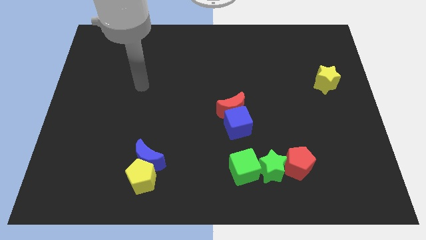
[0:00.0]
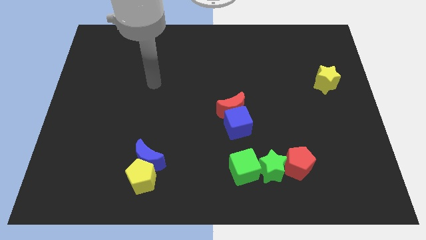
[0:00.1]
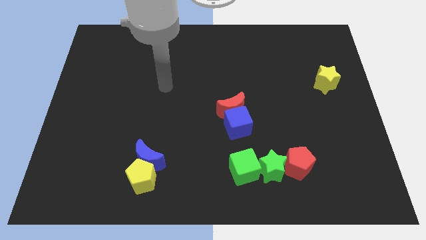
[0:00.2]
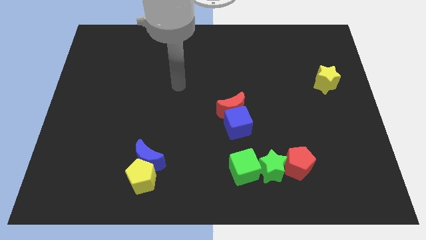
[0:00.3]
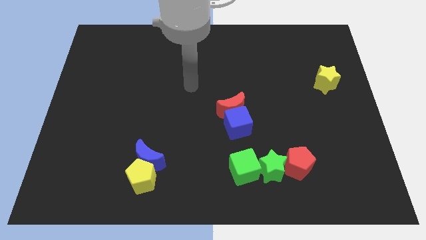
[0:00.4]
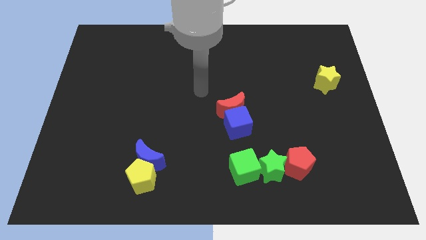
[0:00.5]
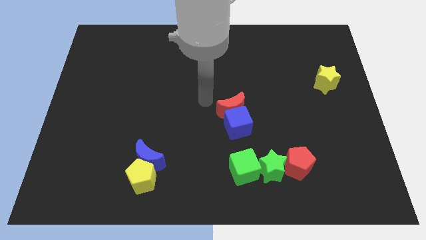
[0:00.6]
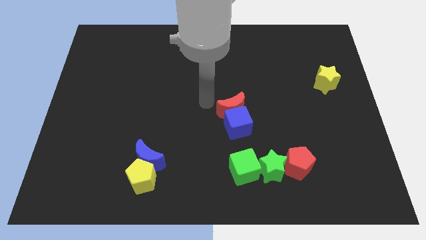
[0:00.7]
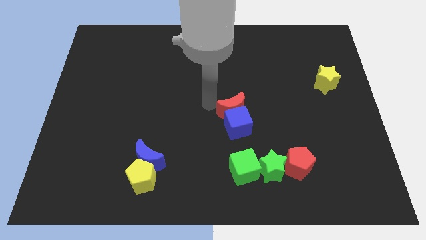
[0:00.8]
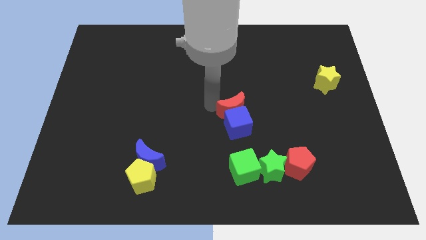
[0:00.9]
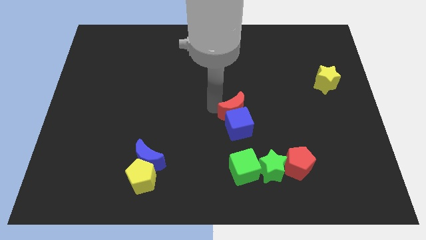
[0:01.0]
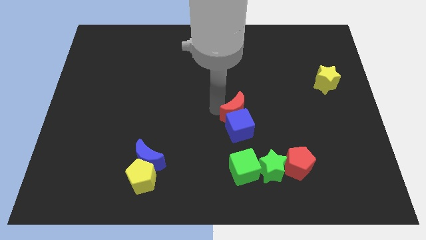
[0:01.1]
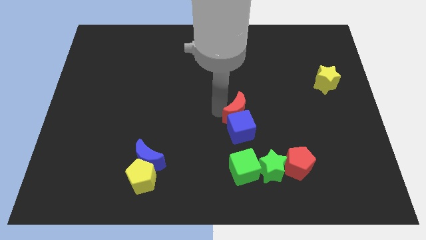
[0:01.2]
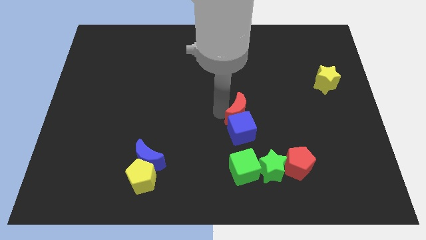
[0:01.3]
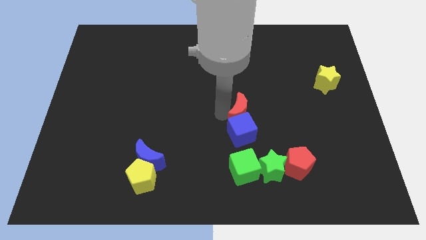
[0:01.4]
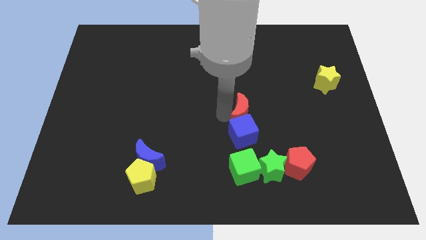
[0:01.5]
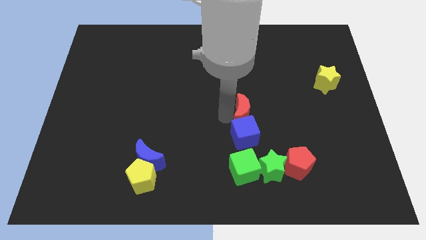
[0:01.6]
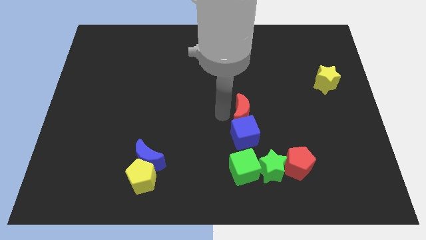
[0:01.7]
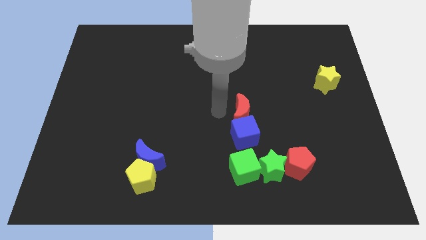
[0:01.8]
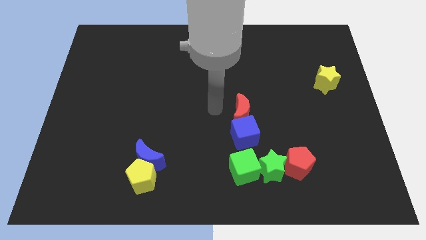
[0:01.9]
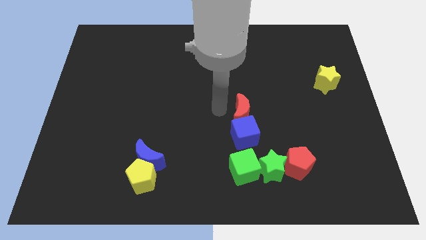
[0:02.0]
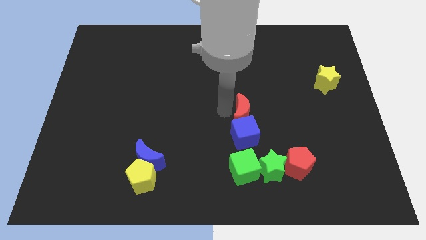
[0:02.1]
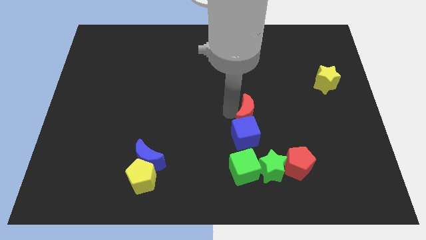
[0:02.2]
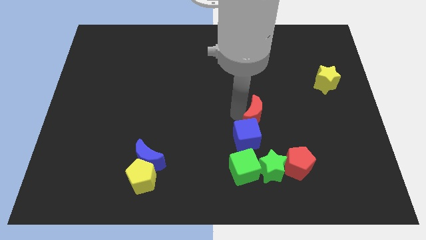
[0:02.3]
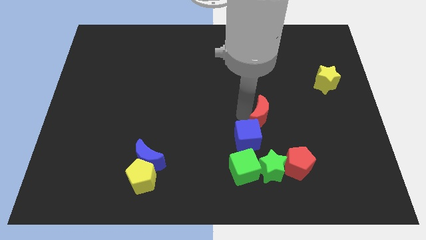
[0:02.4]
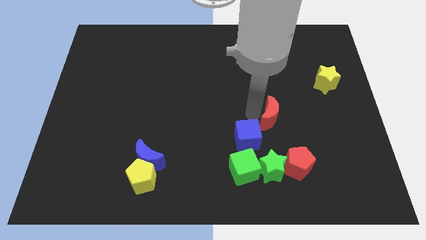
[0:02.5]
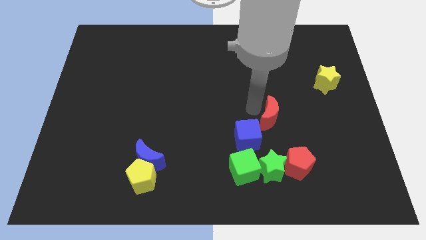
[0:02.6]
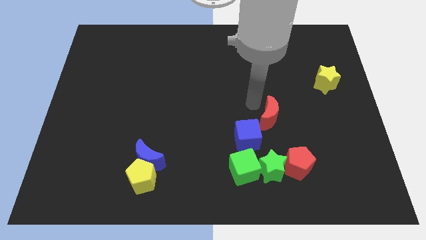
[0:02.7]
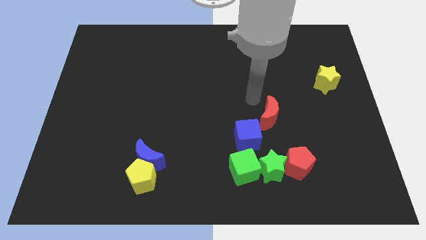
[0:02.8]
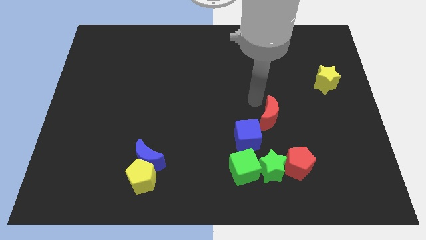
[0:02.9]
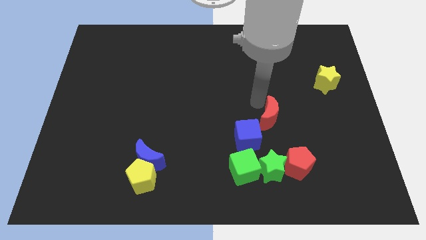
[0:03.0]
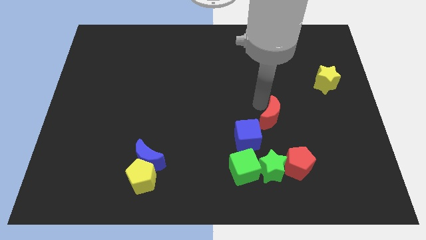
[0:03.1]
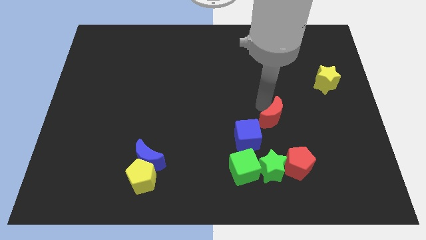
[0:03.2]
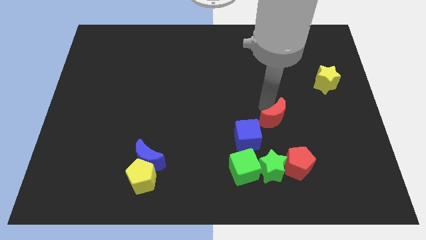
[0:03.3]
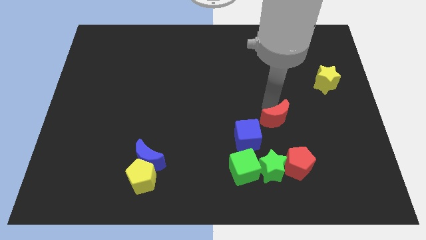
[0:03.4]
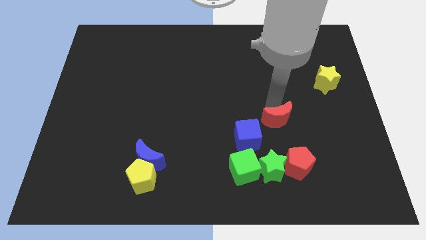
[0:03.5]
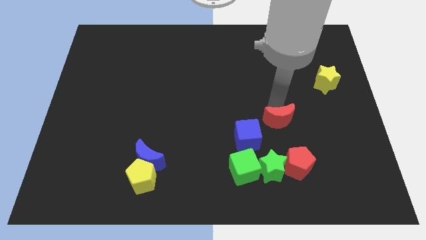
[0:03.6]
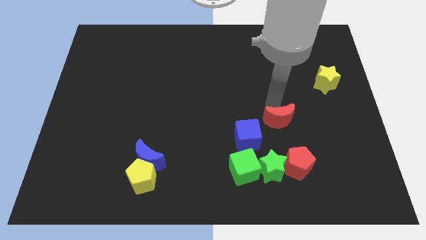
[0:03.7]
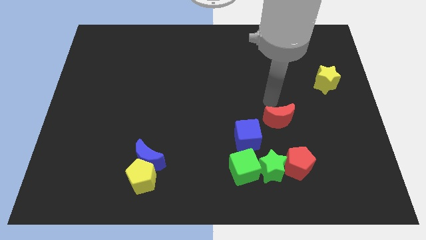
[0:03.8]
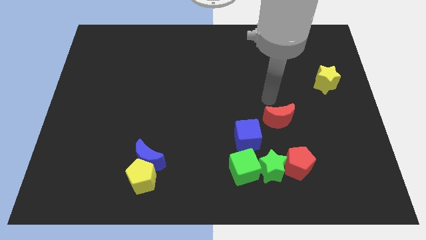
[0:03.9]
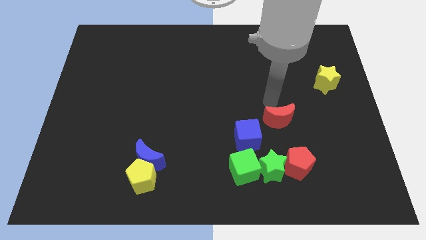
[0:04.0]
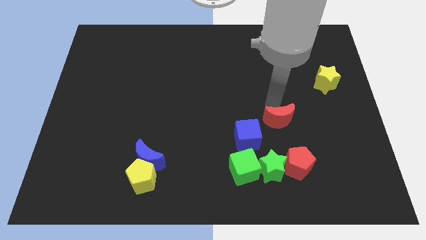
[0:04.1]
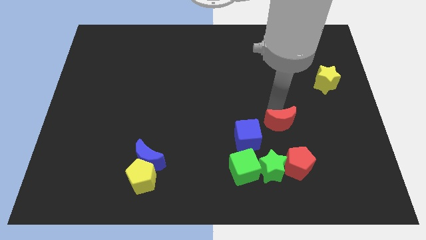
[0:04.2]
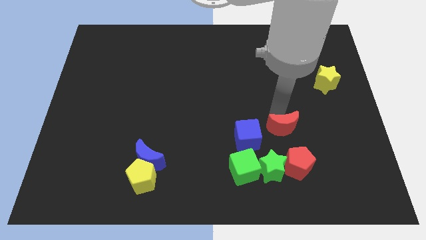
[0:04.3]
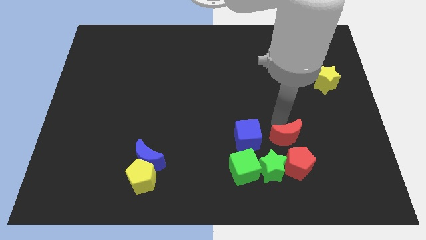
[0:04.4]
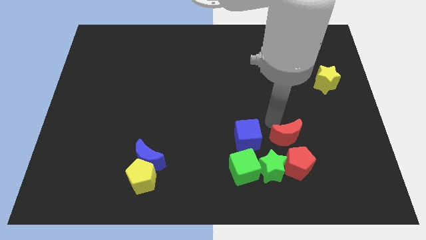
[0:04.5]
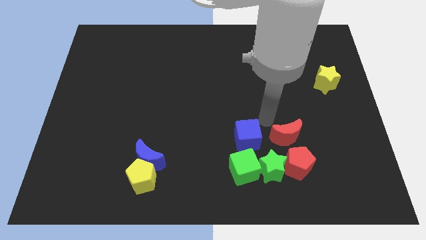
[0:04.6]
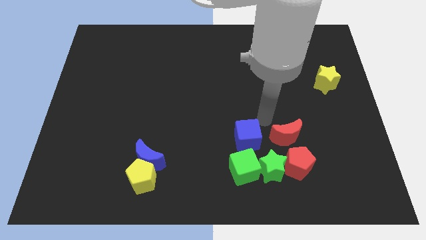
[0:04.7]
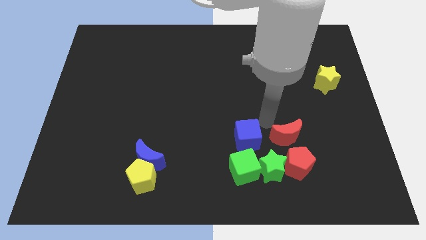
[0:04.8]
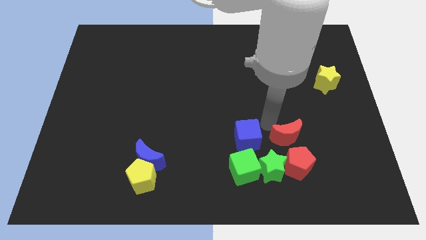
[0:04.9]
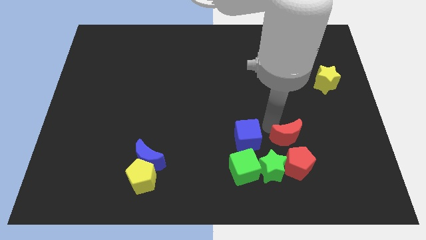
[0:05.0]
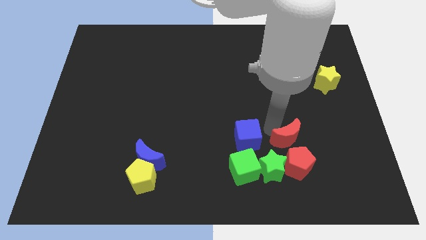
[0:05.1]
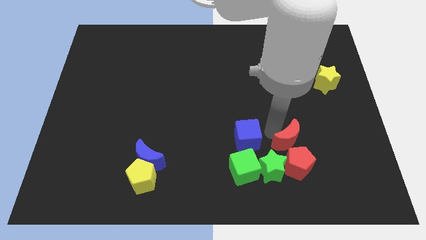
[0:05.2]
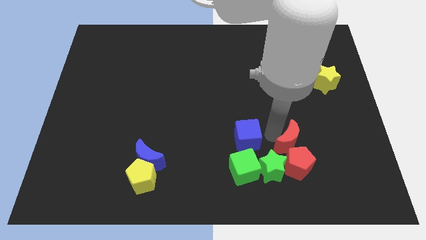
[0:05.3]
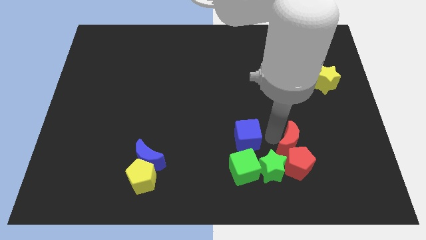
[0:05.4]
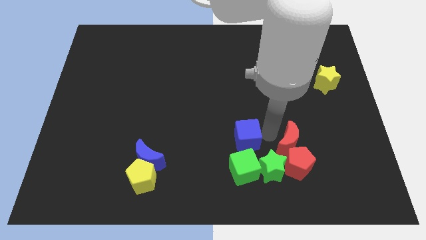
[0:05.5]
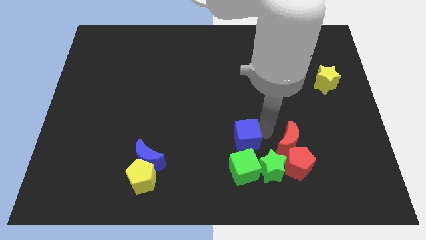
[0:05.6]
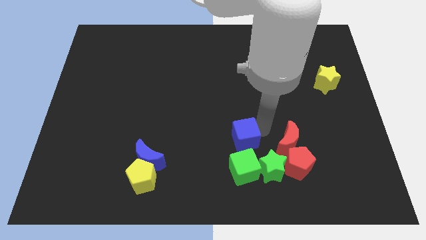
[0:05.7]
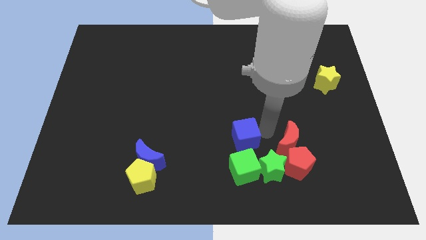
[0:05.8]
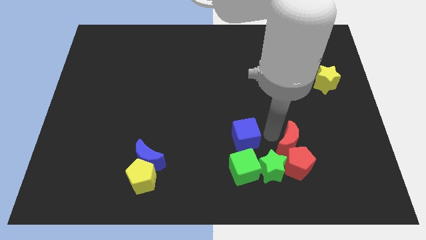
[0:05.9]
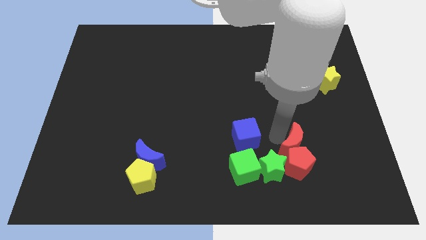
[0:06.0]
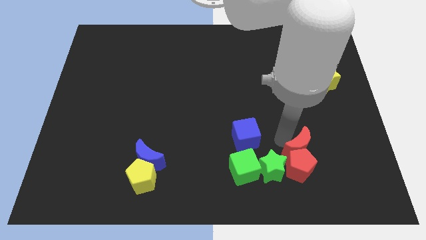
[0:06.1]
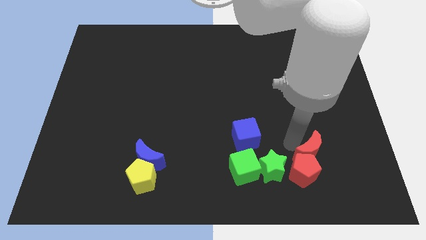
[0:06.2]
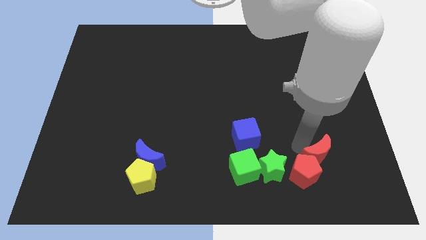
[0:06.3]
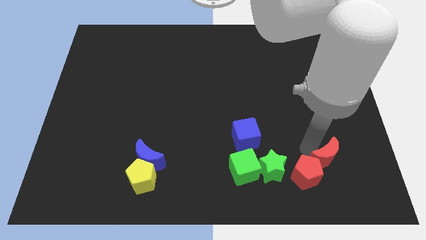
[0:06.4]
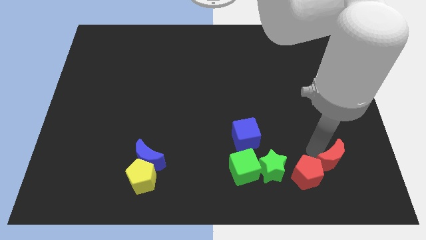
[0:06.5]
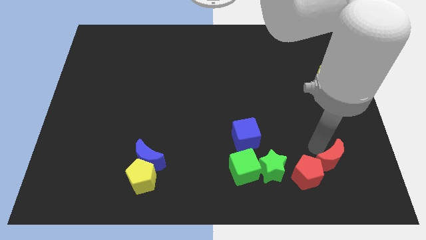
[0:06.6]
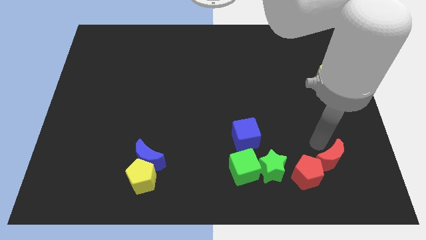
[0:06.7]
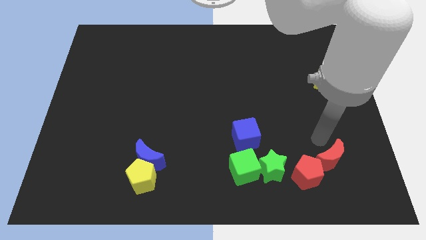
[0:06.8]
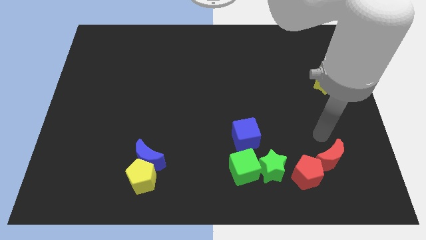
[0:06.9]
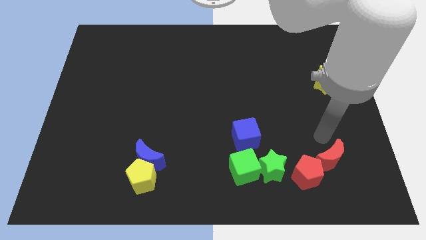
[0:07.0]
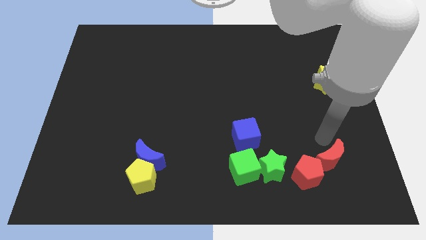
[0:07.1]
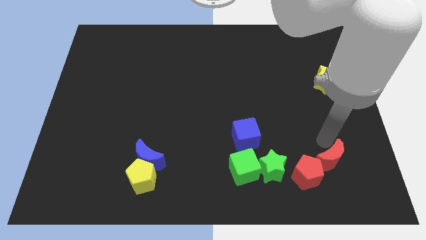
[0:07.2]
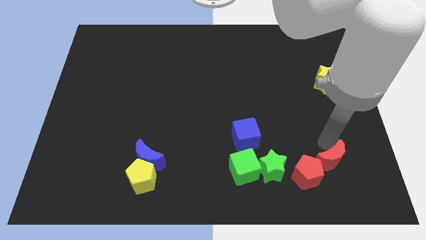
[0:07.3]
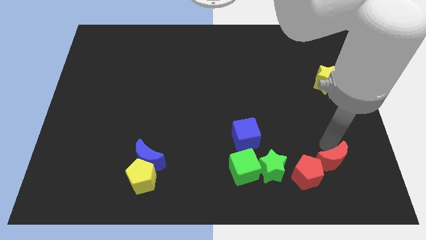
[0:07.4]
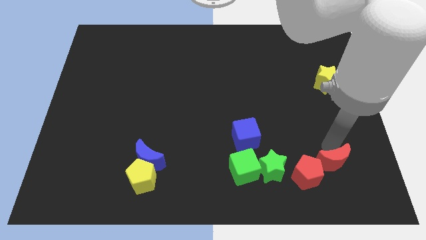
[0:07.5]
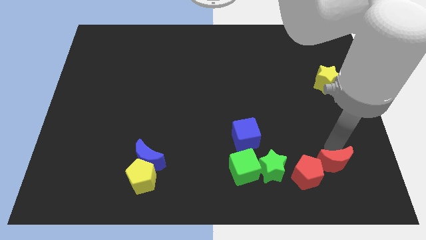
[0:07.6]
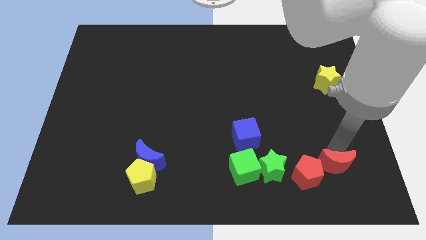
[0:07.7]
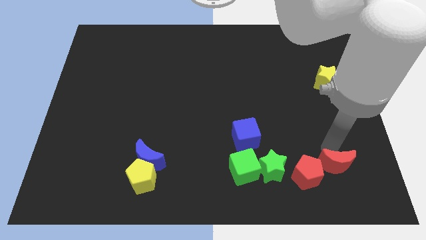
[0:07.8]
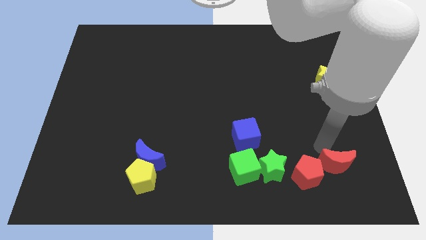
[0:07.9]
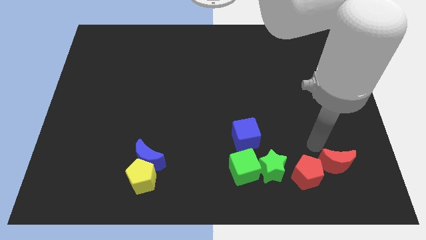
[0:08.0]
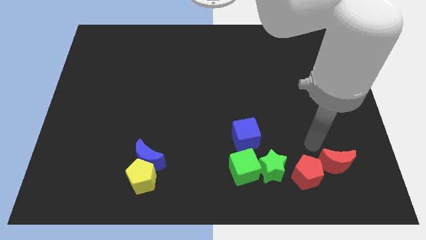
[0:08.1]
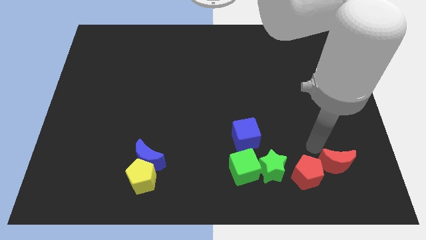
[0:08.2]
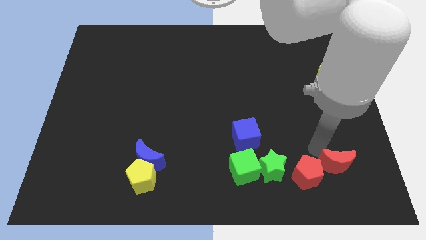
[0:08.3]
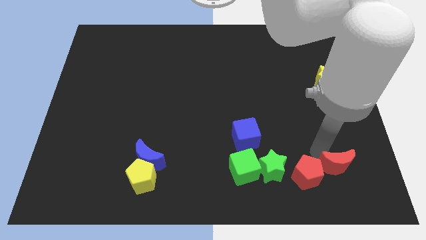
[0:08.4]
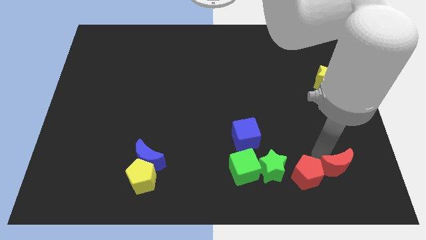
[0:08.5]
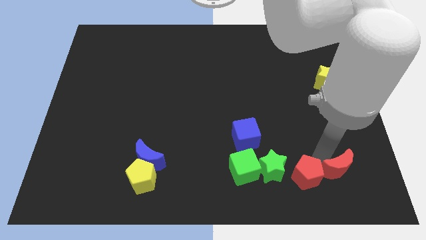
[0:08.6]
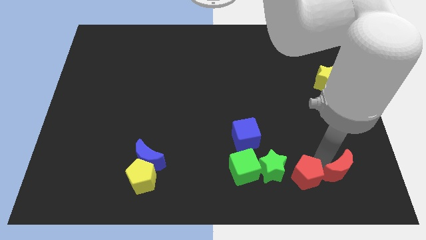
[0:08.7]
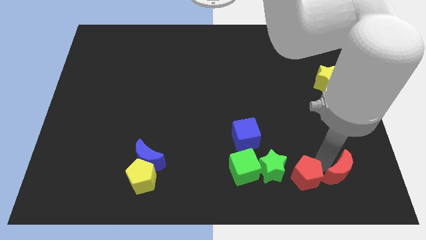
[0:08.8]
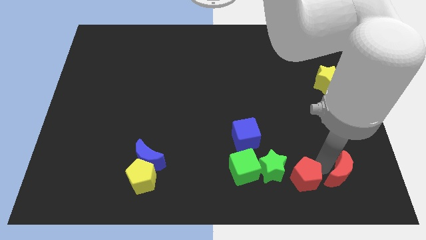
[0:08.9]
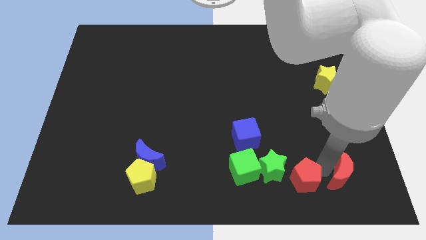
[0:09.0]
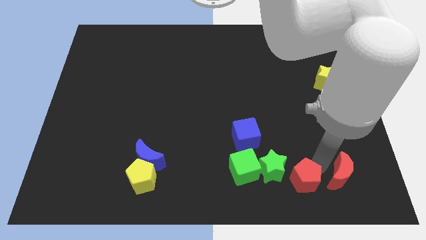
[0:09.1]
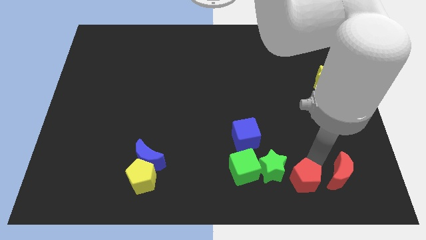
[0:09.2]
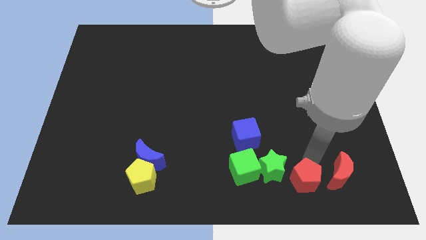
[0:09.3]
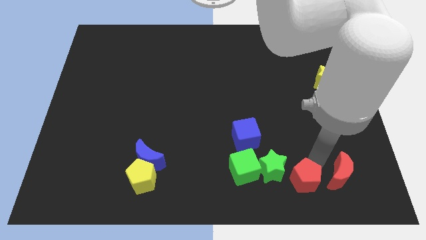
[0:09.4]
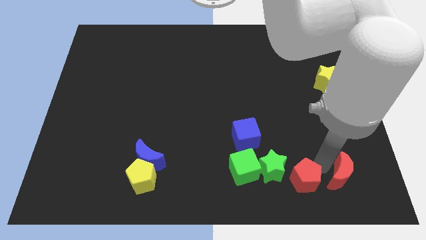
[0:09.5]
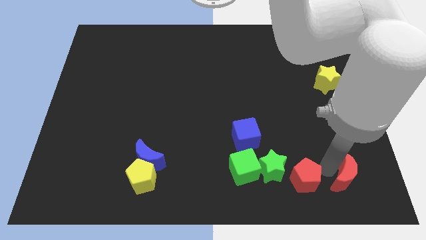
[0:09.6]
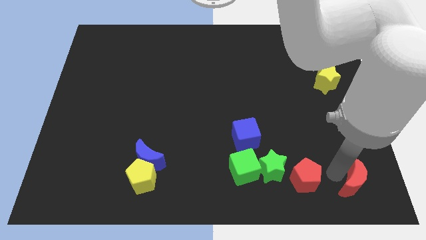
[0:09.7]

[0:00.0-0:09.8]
slide the red moon to the bottom right
